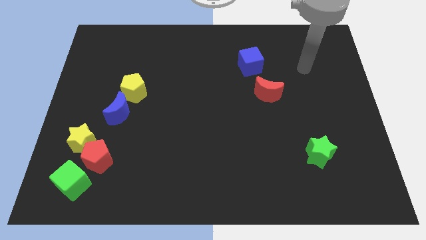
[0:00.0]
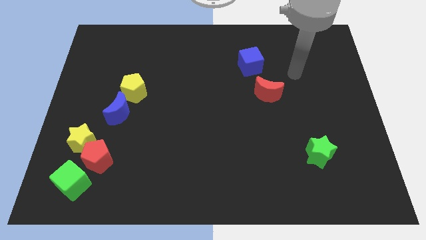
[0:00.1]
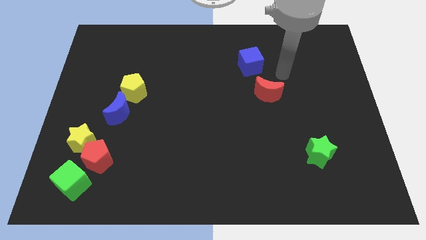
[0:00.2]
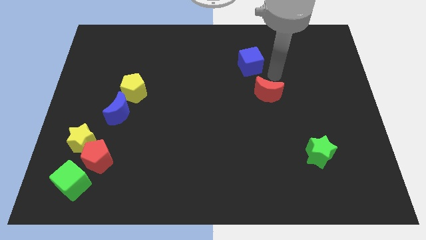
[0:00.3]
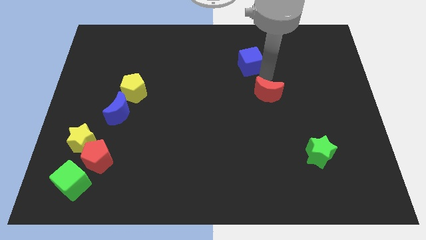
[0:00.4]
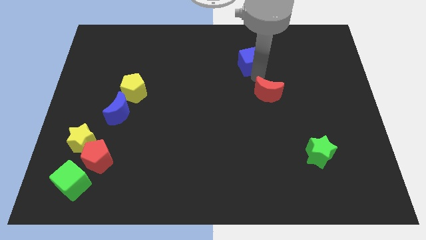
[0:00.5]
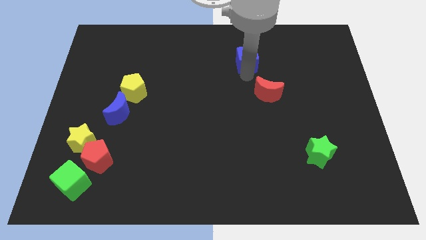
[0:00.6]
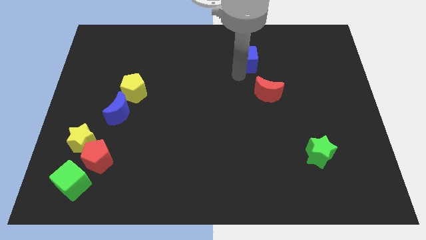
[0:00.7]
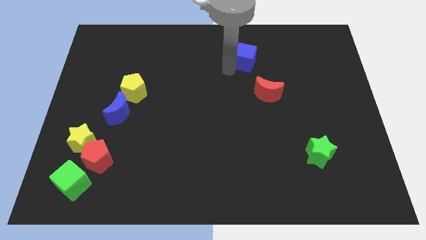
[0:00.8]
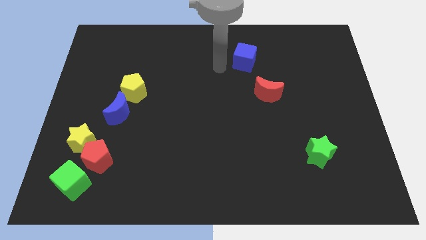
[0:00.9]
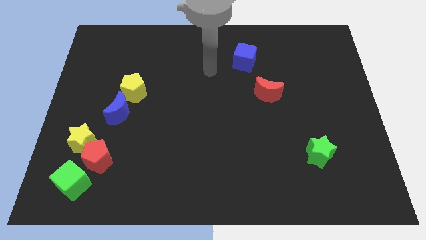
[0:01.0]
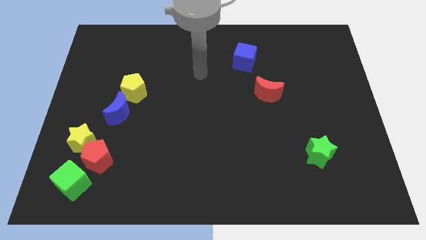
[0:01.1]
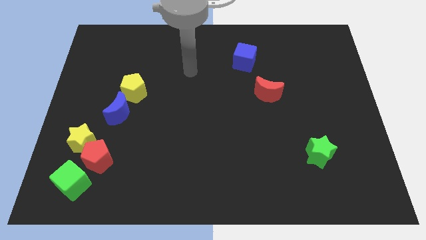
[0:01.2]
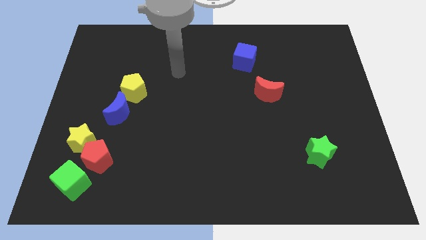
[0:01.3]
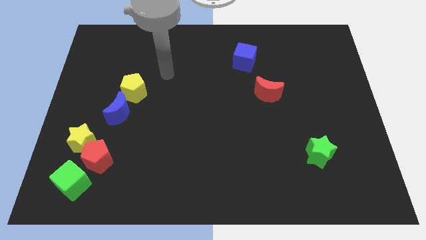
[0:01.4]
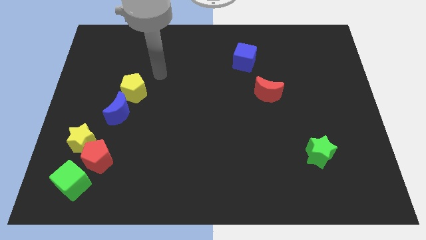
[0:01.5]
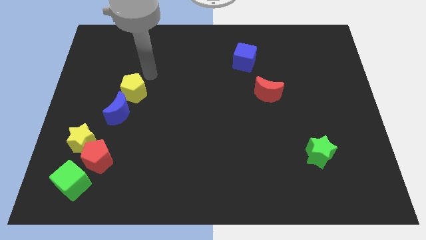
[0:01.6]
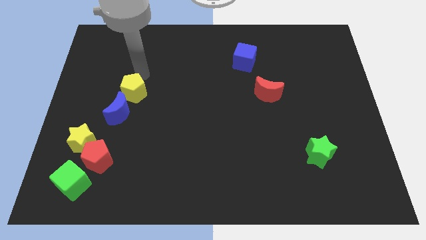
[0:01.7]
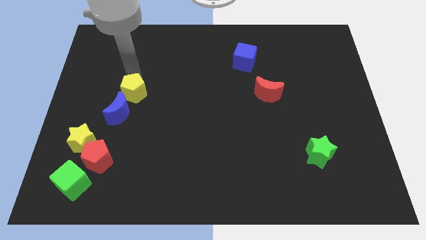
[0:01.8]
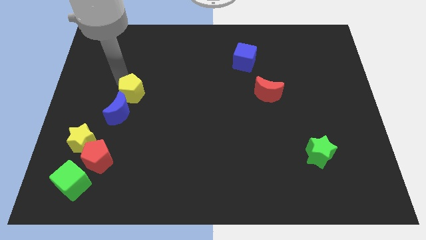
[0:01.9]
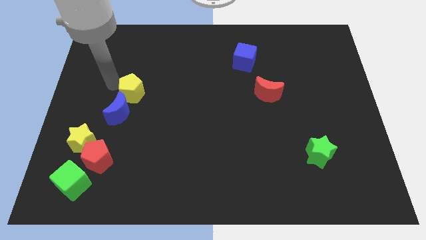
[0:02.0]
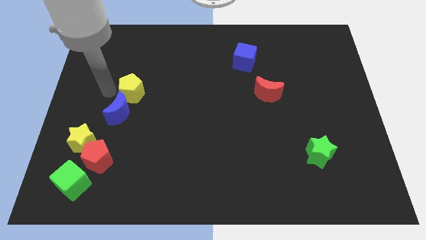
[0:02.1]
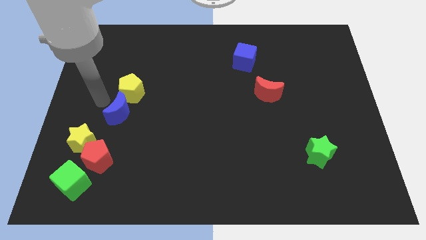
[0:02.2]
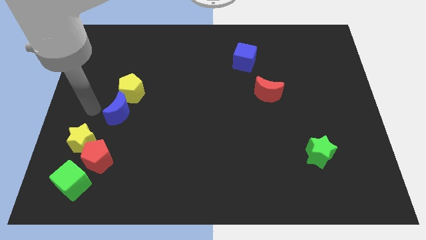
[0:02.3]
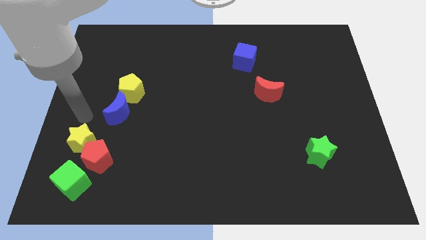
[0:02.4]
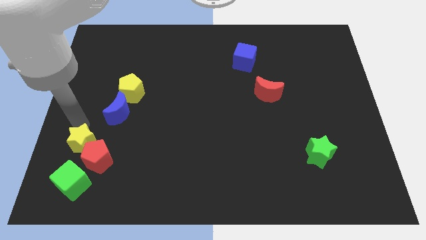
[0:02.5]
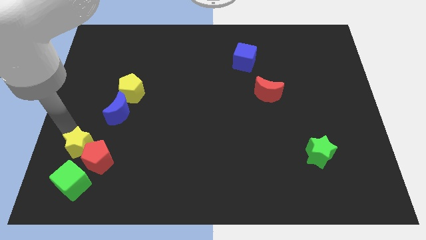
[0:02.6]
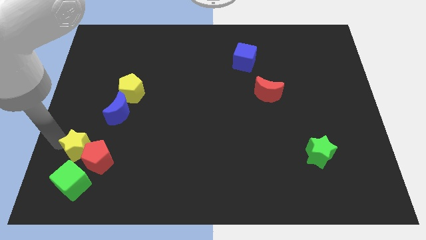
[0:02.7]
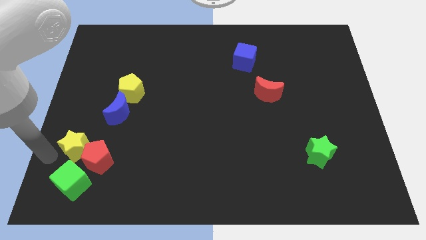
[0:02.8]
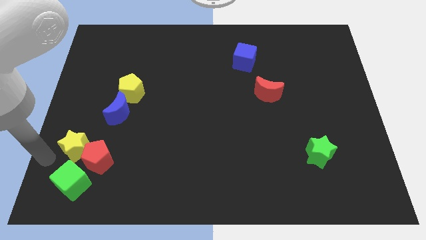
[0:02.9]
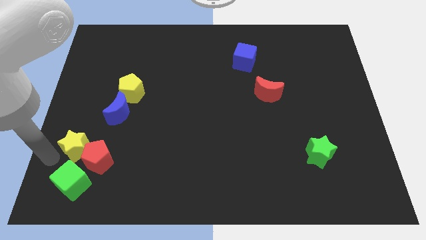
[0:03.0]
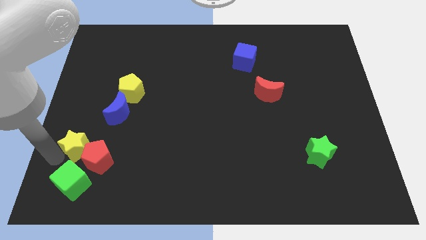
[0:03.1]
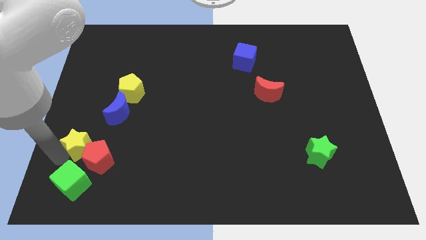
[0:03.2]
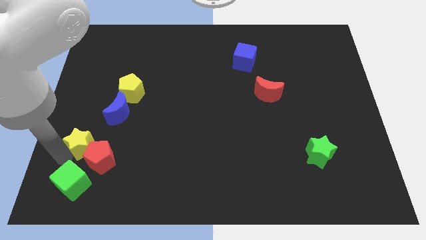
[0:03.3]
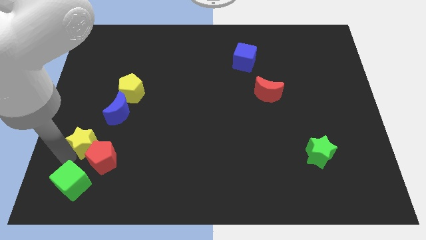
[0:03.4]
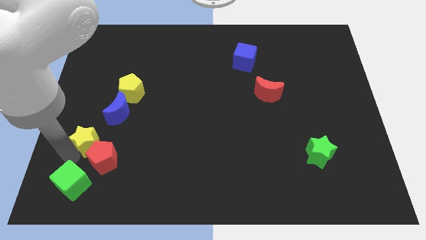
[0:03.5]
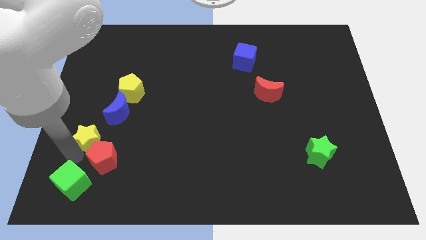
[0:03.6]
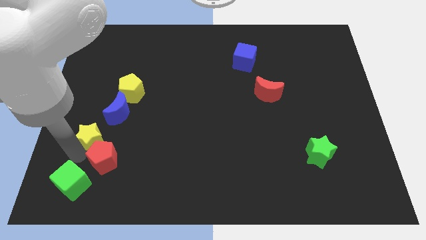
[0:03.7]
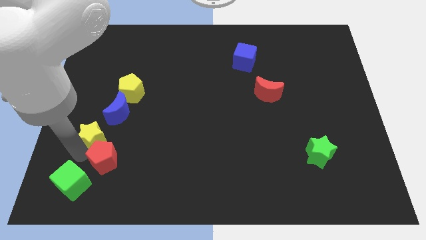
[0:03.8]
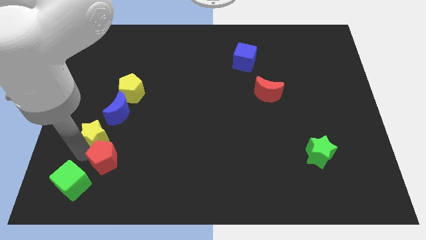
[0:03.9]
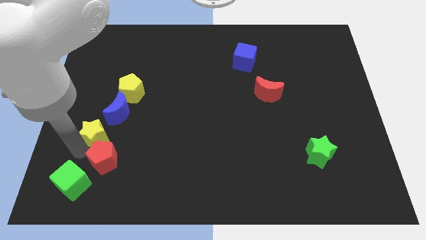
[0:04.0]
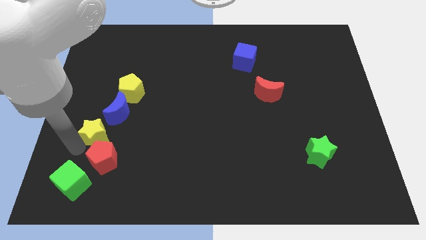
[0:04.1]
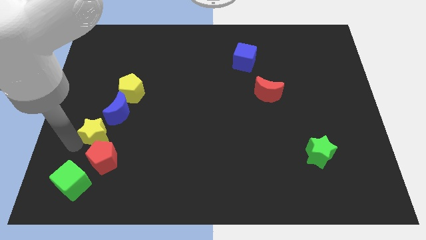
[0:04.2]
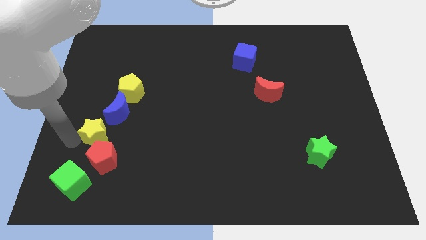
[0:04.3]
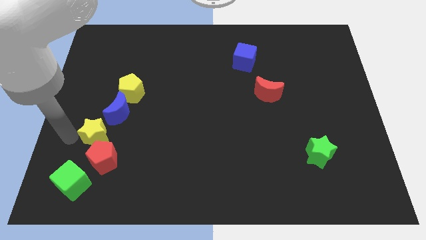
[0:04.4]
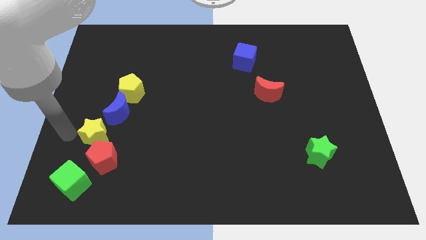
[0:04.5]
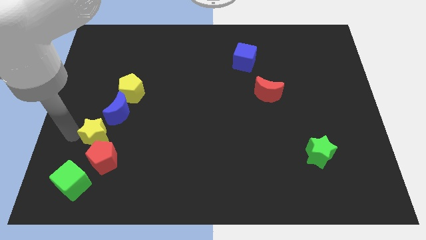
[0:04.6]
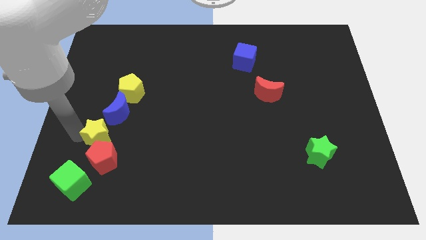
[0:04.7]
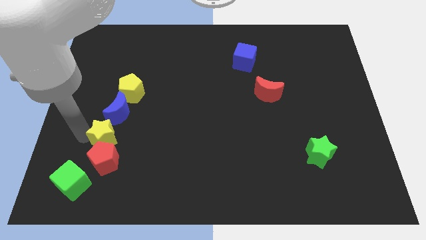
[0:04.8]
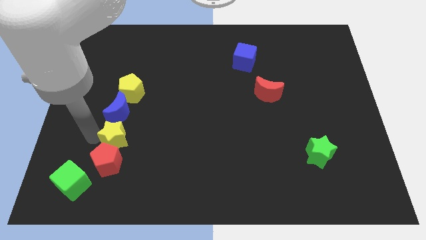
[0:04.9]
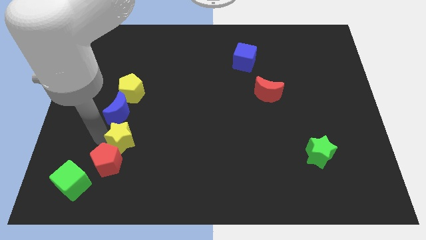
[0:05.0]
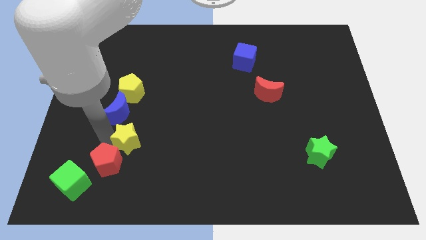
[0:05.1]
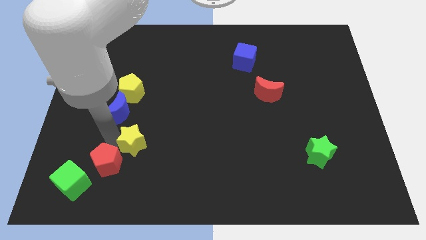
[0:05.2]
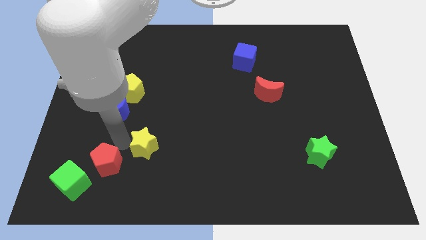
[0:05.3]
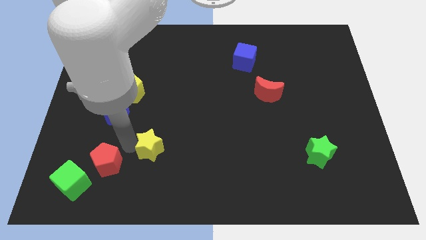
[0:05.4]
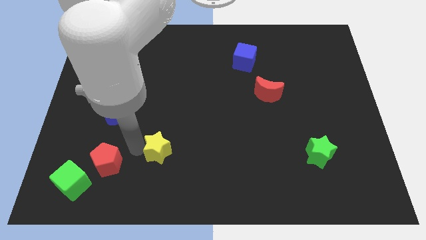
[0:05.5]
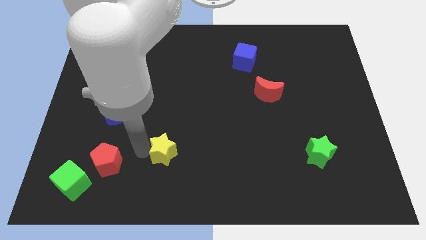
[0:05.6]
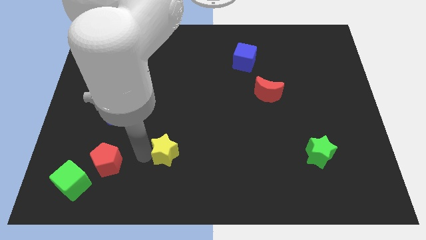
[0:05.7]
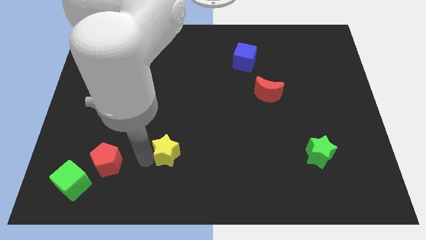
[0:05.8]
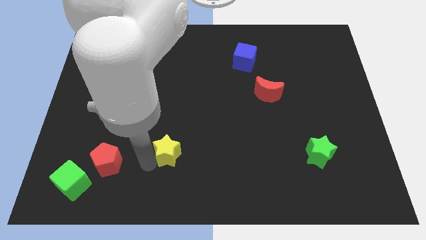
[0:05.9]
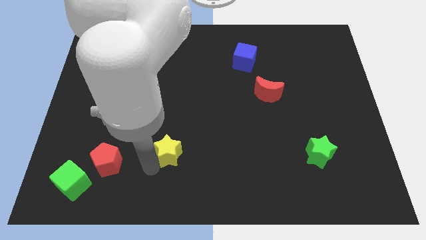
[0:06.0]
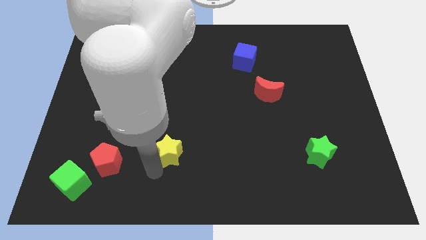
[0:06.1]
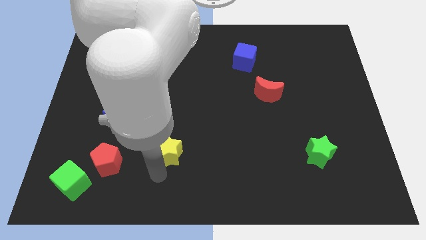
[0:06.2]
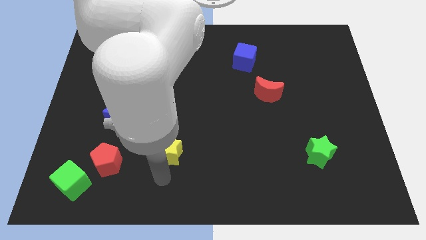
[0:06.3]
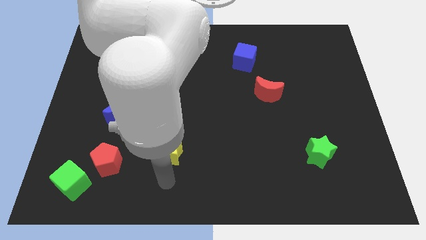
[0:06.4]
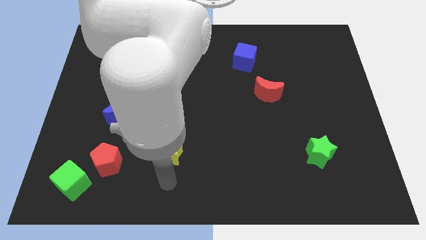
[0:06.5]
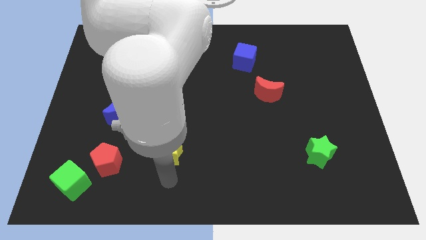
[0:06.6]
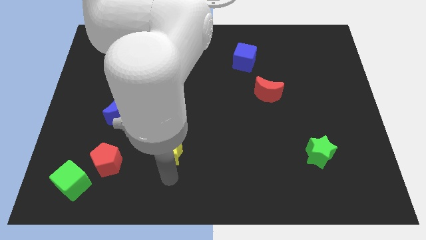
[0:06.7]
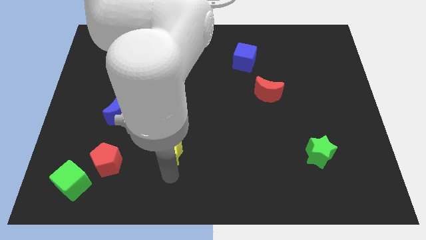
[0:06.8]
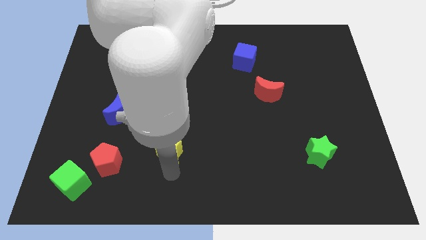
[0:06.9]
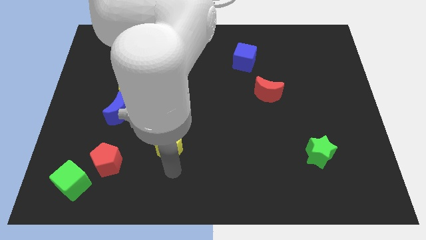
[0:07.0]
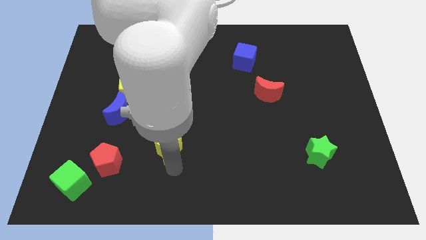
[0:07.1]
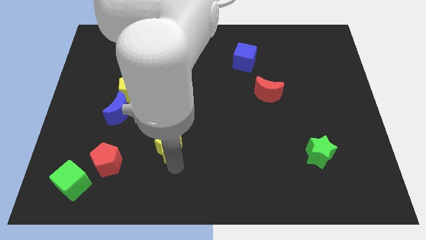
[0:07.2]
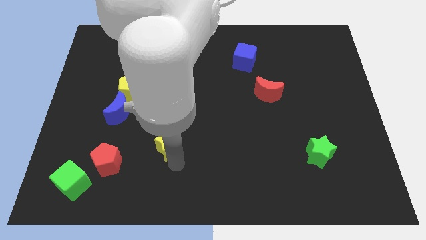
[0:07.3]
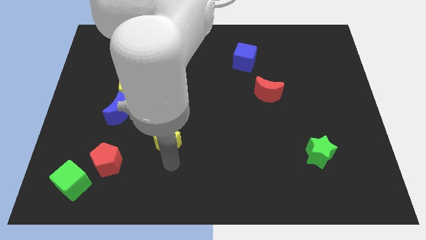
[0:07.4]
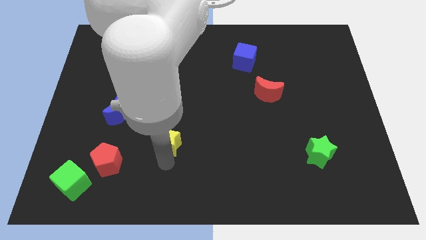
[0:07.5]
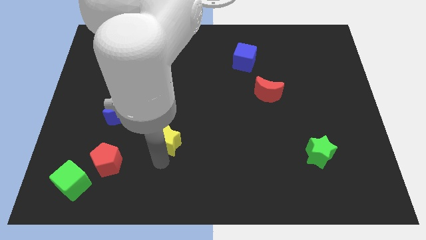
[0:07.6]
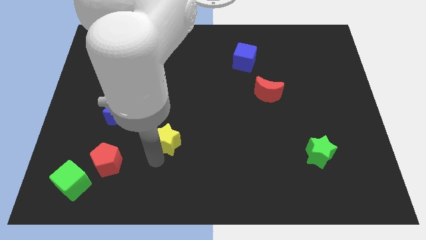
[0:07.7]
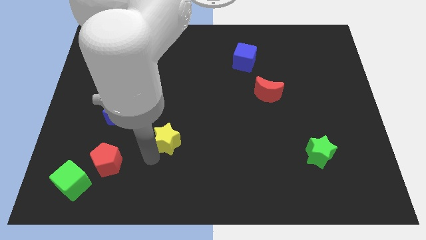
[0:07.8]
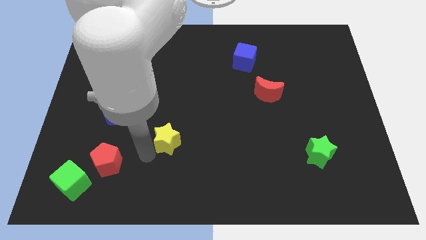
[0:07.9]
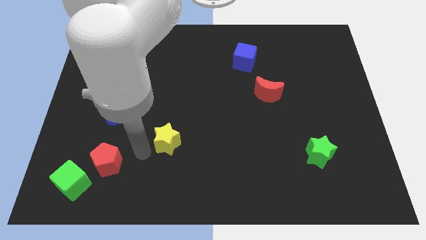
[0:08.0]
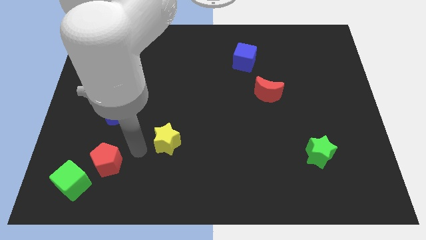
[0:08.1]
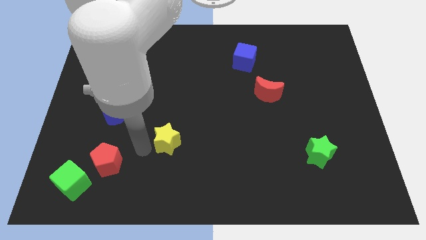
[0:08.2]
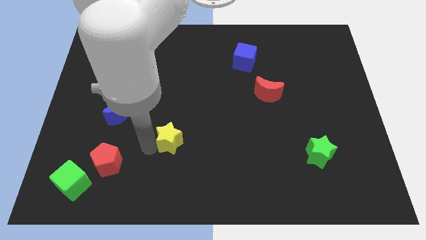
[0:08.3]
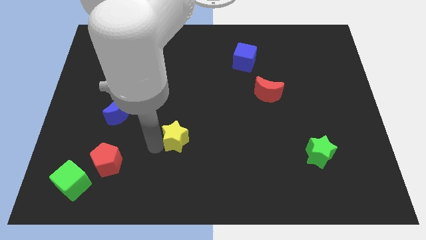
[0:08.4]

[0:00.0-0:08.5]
push the yellow star to the right
